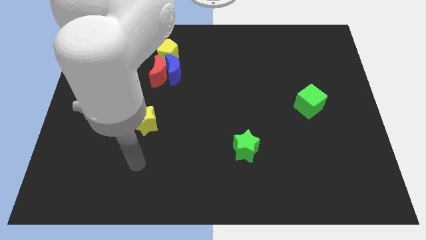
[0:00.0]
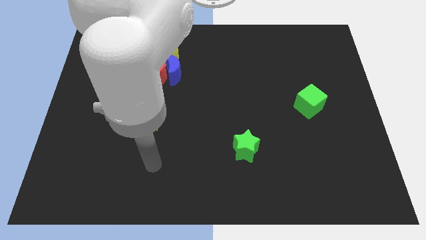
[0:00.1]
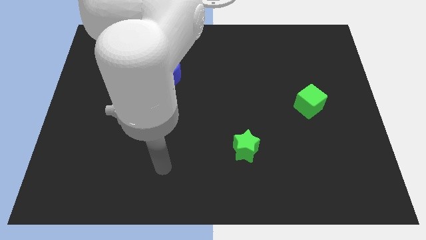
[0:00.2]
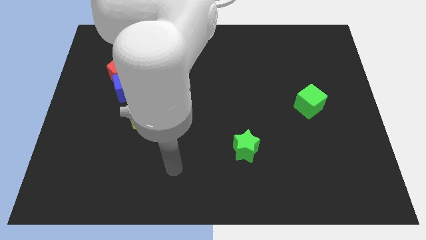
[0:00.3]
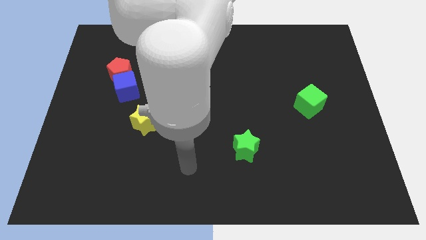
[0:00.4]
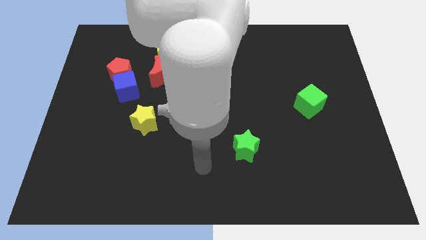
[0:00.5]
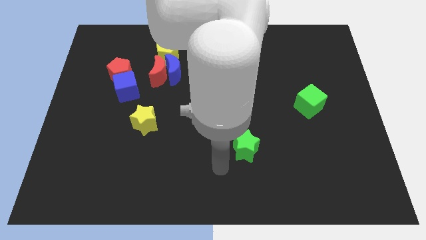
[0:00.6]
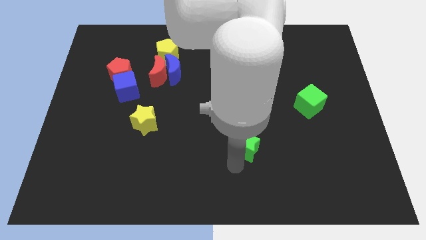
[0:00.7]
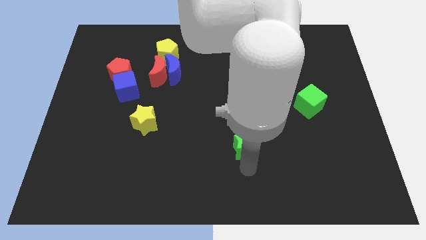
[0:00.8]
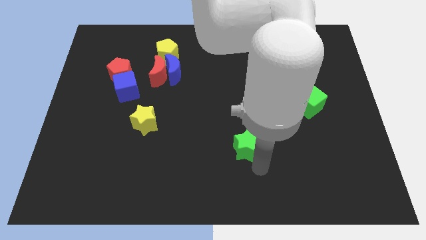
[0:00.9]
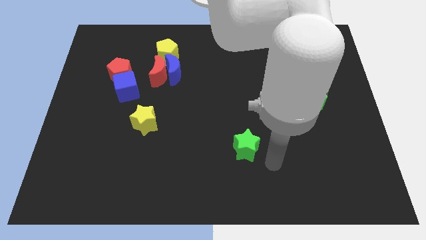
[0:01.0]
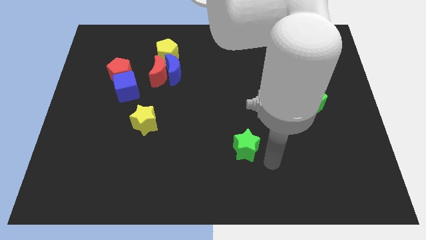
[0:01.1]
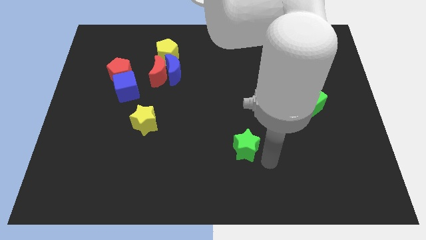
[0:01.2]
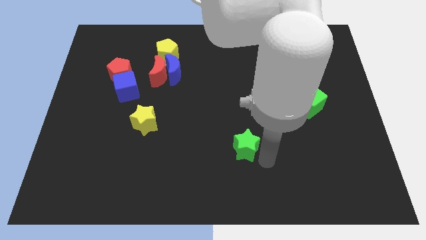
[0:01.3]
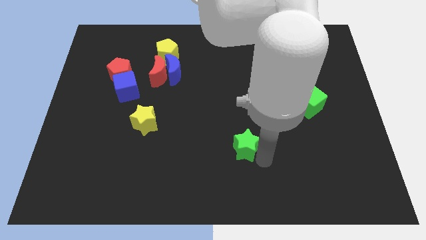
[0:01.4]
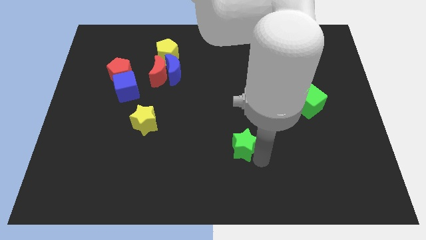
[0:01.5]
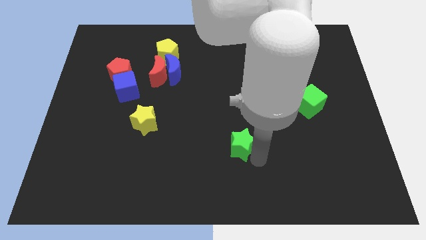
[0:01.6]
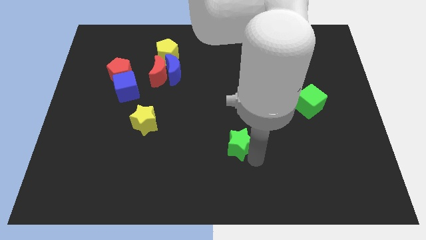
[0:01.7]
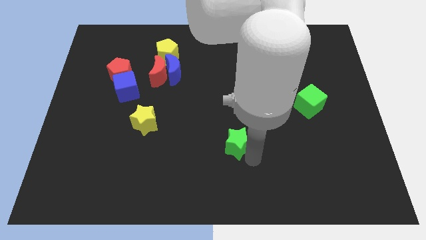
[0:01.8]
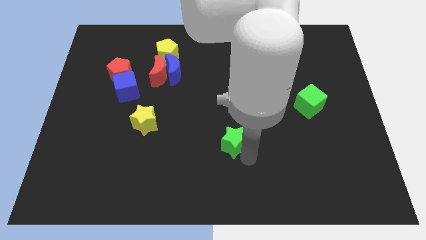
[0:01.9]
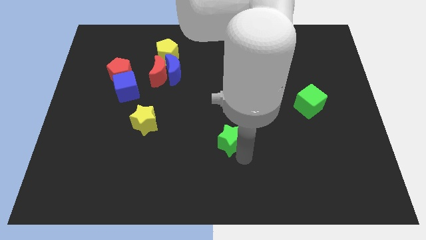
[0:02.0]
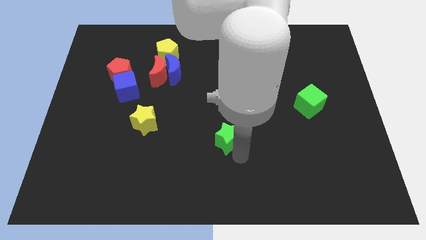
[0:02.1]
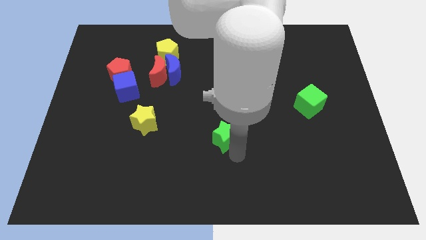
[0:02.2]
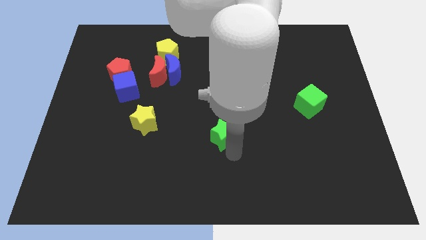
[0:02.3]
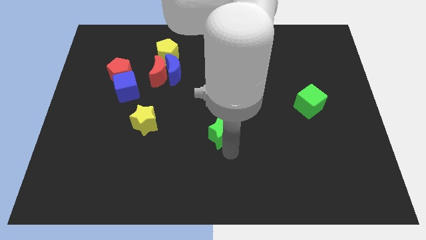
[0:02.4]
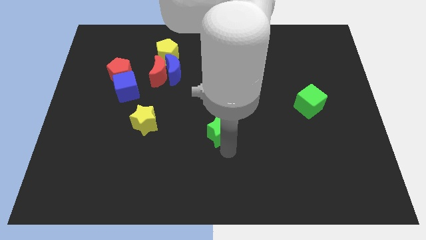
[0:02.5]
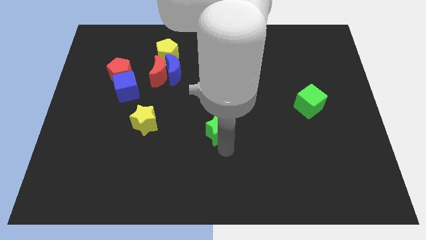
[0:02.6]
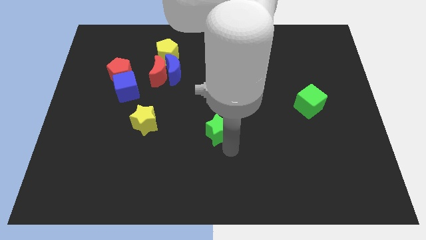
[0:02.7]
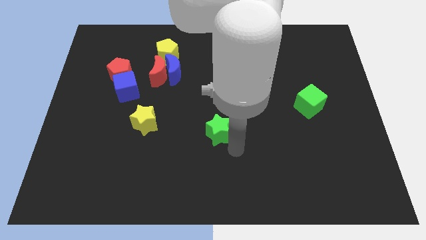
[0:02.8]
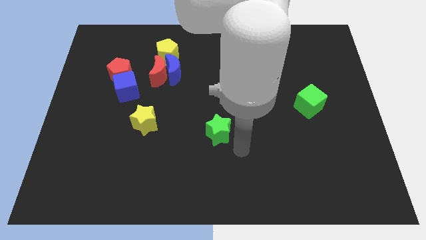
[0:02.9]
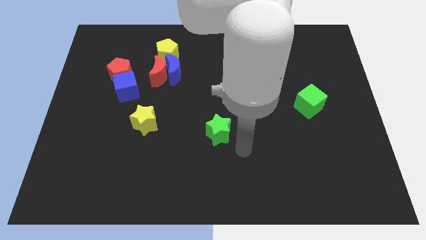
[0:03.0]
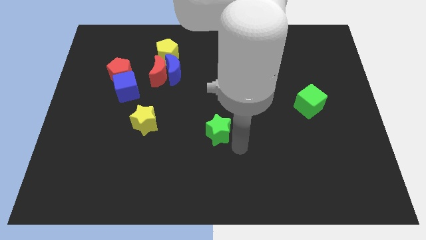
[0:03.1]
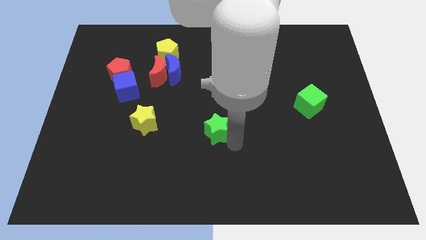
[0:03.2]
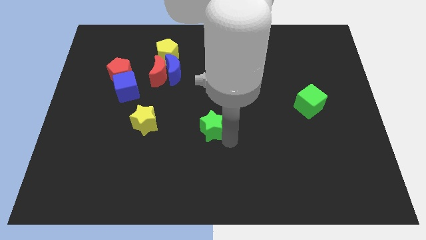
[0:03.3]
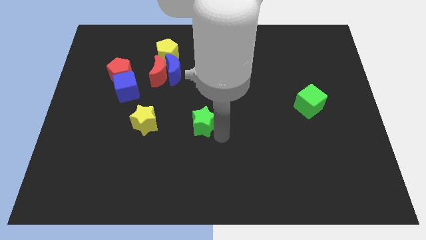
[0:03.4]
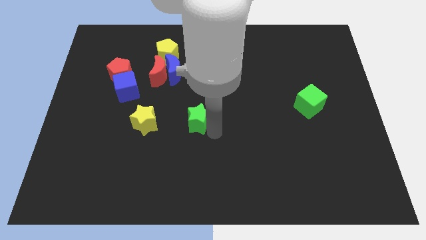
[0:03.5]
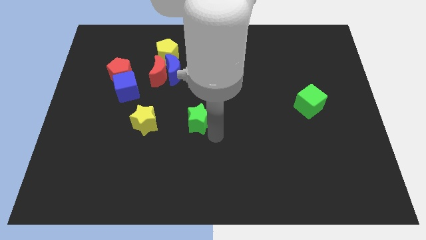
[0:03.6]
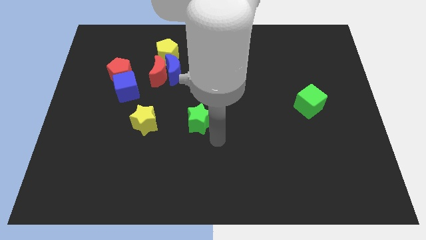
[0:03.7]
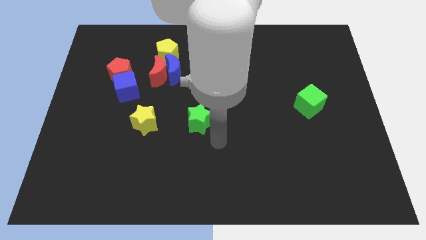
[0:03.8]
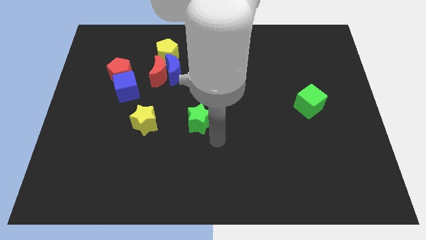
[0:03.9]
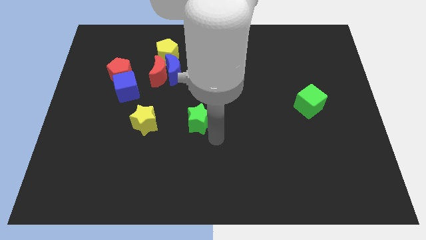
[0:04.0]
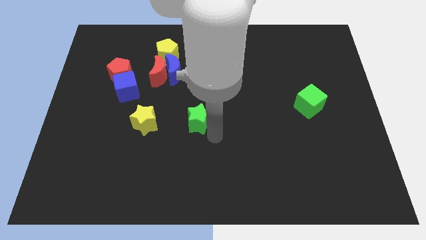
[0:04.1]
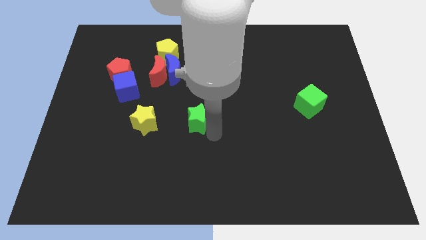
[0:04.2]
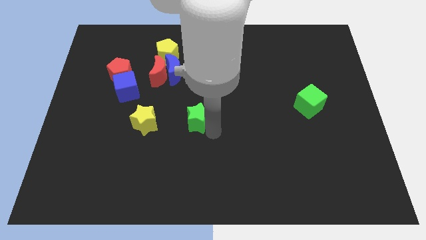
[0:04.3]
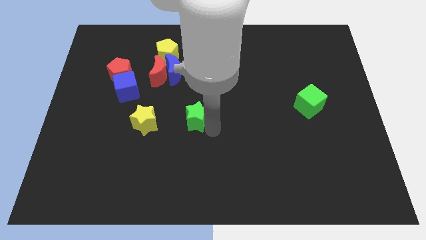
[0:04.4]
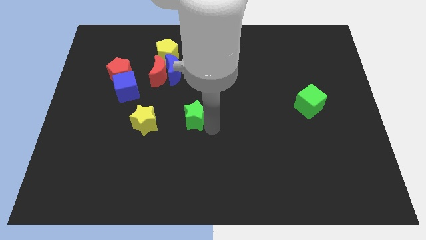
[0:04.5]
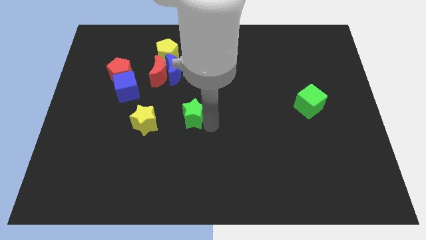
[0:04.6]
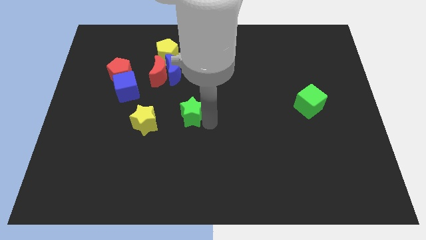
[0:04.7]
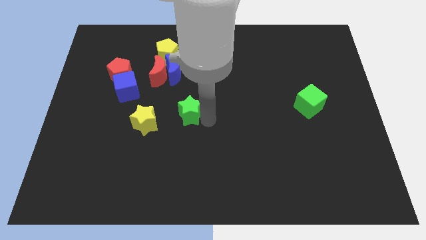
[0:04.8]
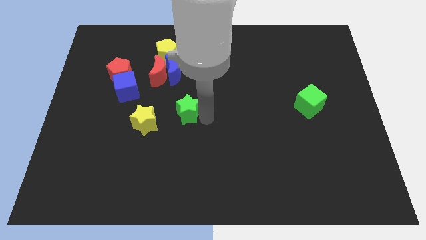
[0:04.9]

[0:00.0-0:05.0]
put the green star to the bottom side of the blue moon

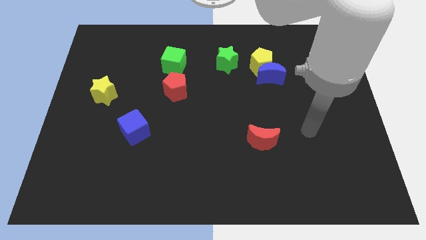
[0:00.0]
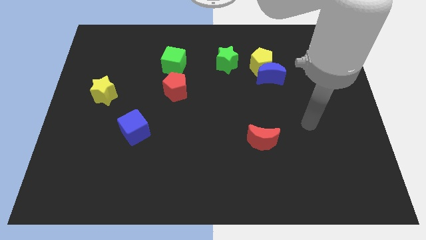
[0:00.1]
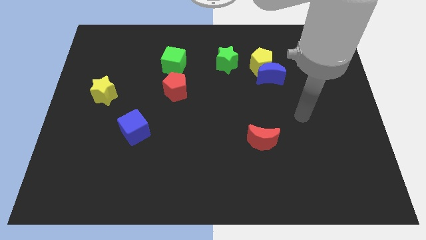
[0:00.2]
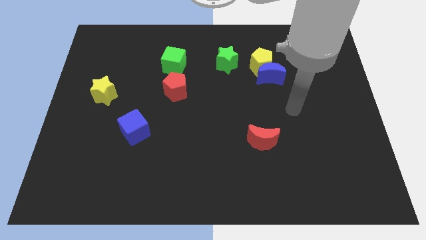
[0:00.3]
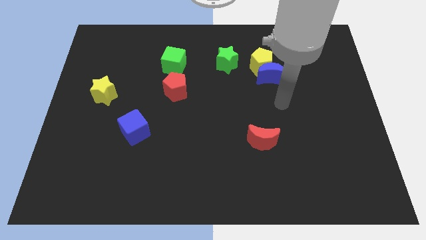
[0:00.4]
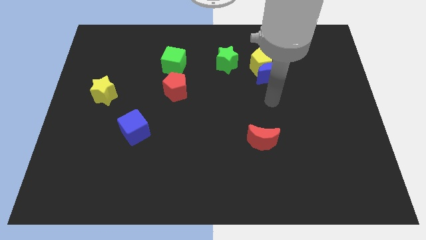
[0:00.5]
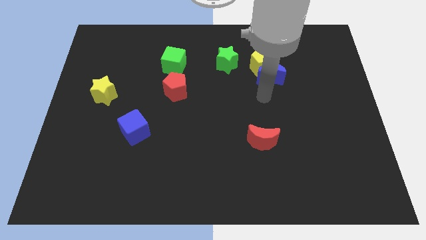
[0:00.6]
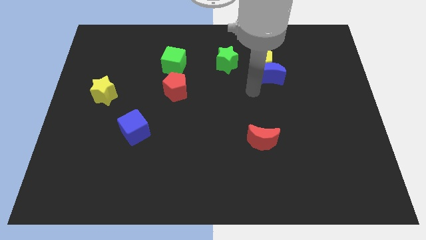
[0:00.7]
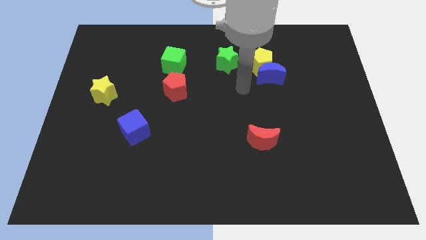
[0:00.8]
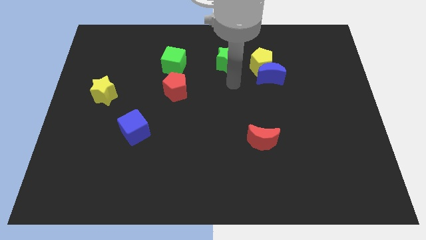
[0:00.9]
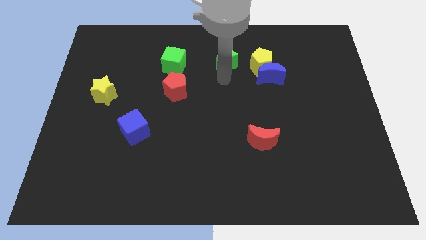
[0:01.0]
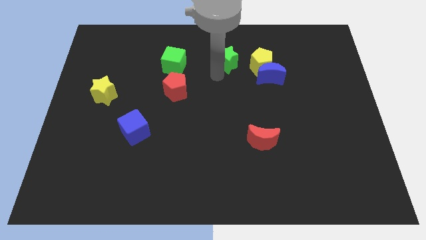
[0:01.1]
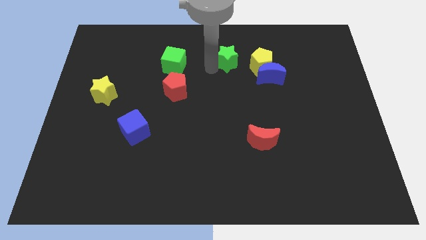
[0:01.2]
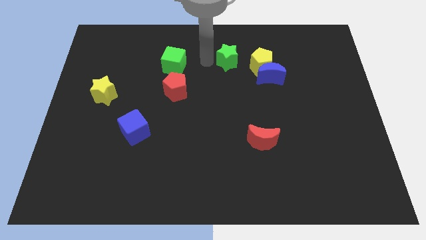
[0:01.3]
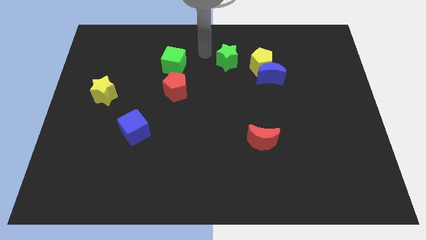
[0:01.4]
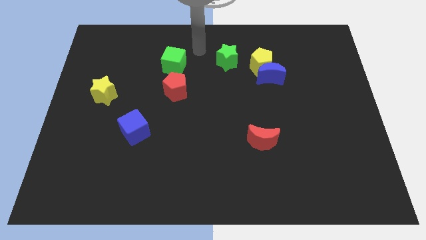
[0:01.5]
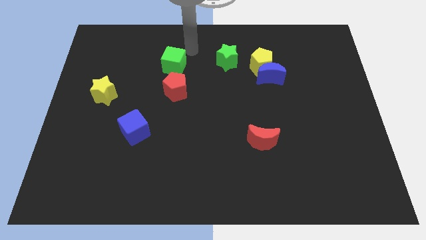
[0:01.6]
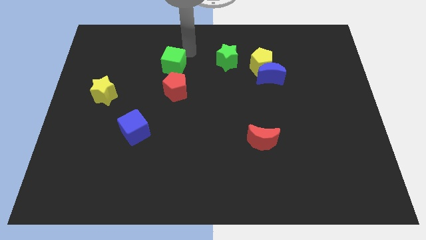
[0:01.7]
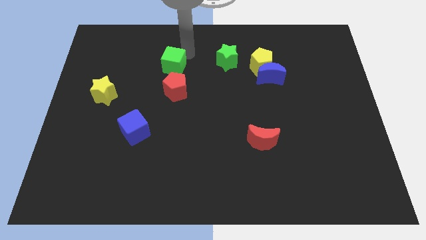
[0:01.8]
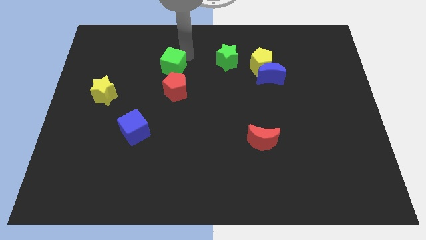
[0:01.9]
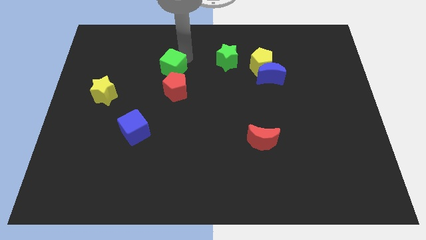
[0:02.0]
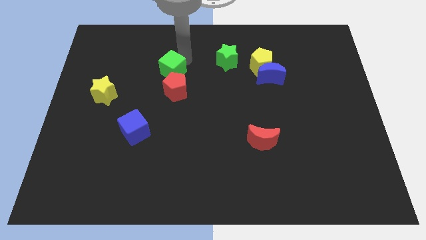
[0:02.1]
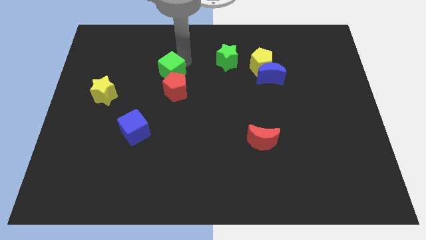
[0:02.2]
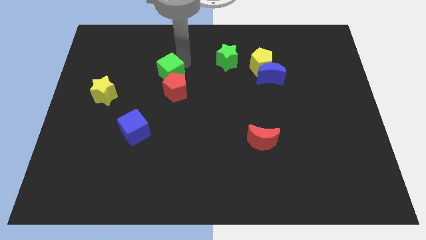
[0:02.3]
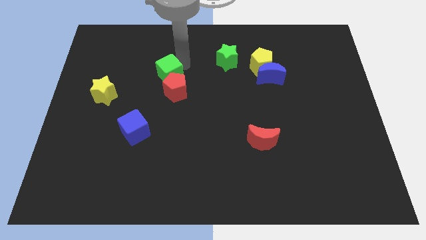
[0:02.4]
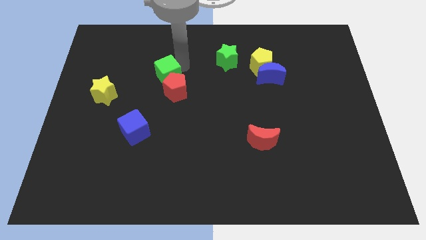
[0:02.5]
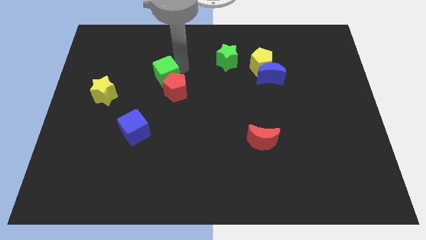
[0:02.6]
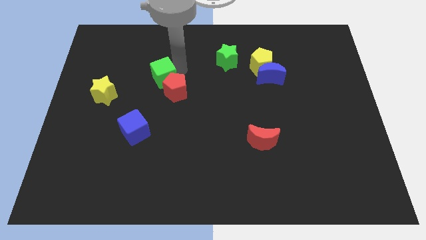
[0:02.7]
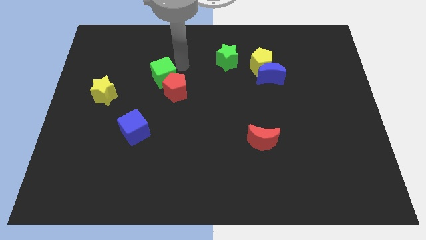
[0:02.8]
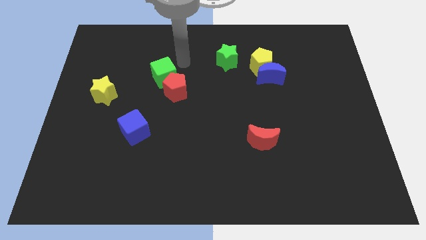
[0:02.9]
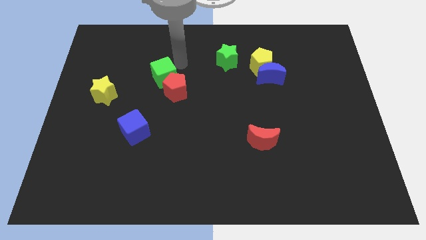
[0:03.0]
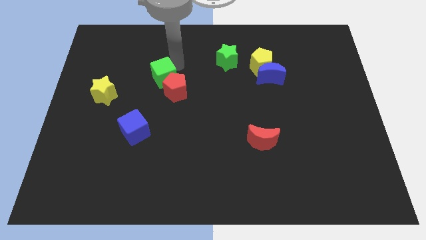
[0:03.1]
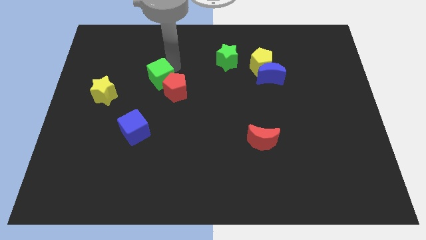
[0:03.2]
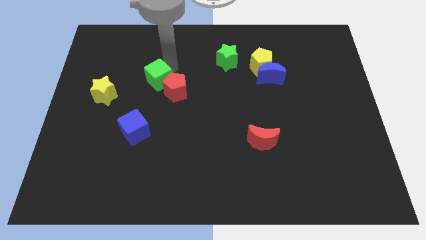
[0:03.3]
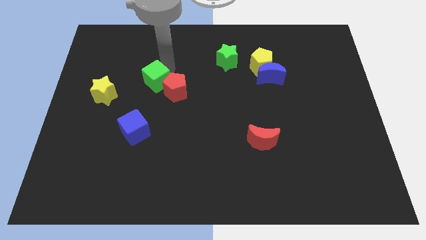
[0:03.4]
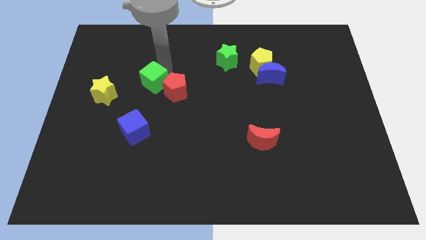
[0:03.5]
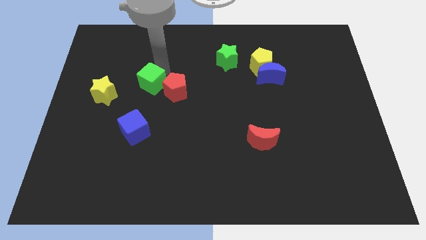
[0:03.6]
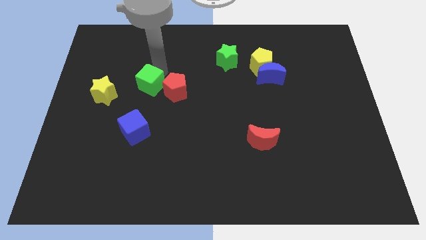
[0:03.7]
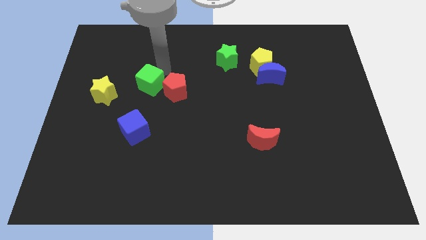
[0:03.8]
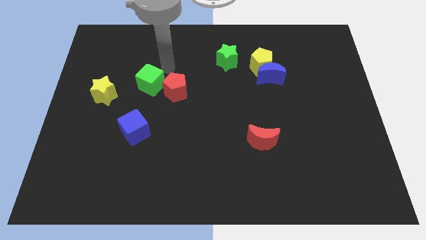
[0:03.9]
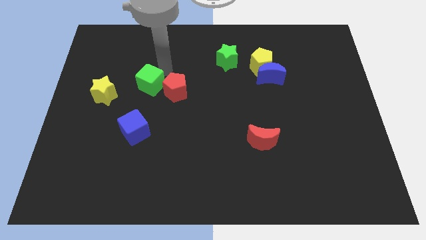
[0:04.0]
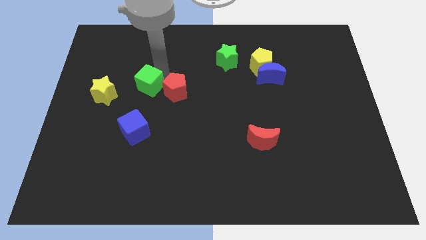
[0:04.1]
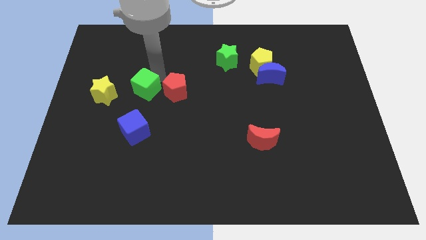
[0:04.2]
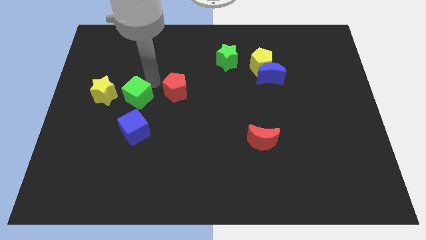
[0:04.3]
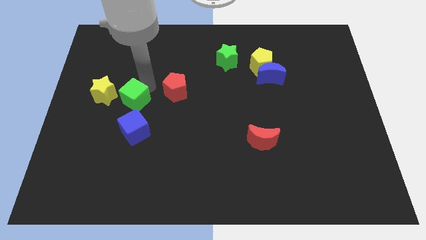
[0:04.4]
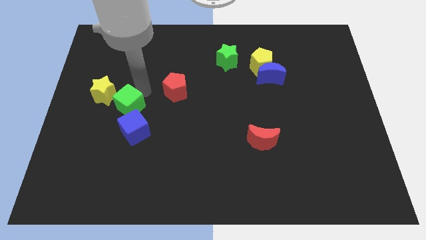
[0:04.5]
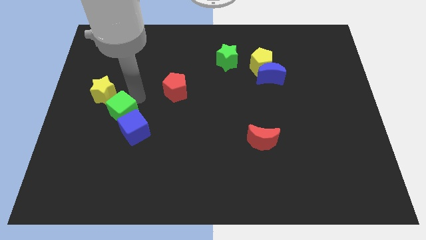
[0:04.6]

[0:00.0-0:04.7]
put the green cube to the bottom of the yellow star
